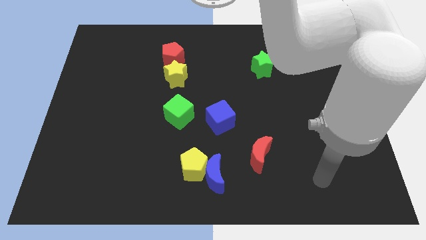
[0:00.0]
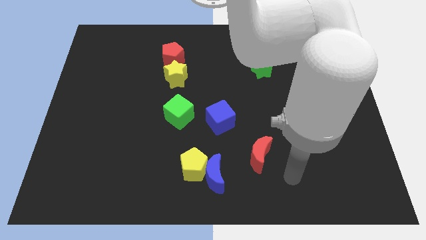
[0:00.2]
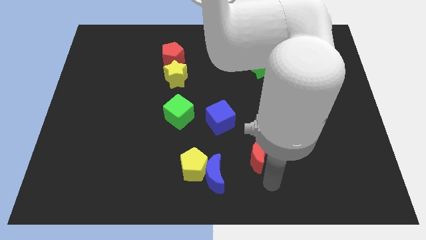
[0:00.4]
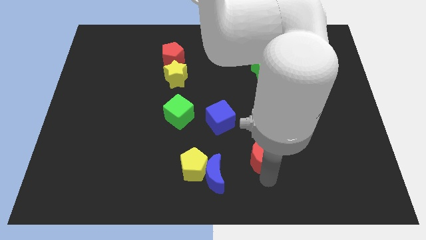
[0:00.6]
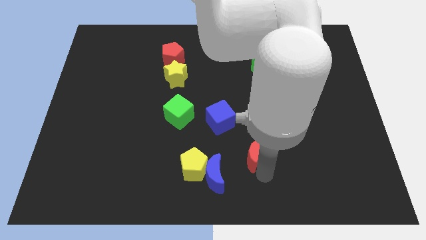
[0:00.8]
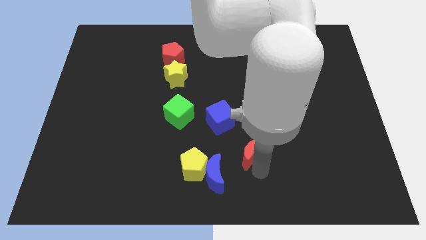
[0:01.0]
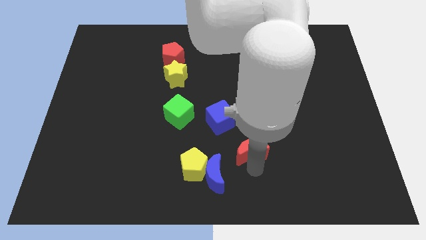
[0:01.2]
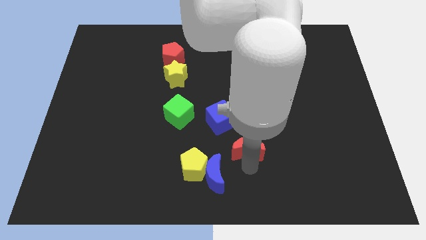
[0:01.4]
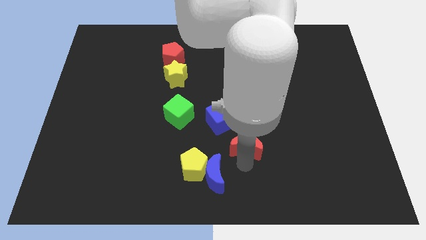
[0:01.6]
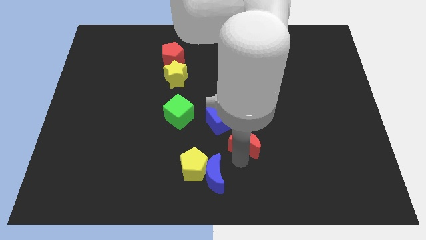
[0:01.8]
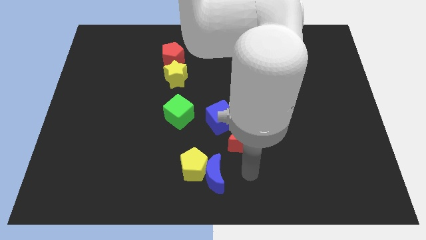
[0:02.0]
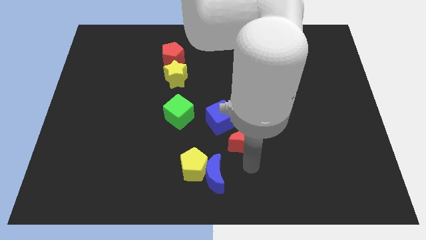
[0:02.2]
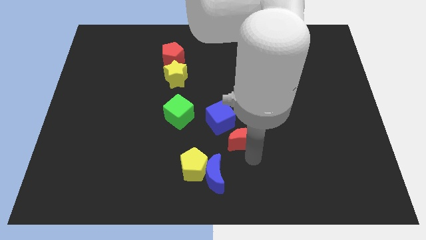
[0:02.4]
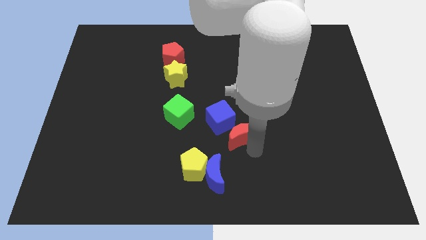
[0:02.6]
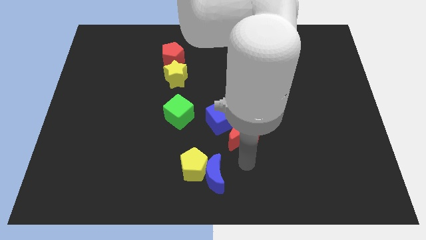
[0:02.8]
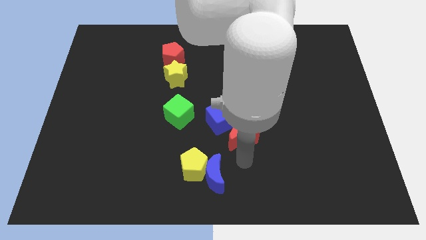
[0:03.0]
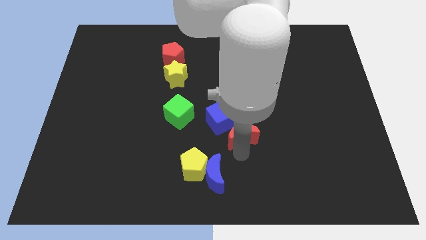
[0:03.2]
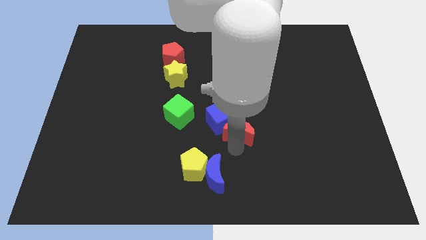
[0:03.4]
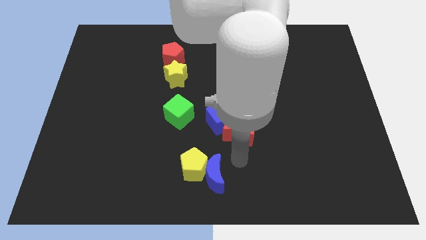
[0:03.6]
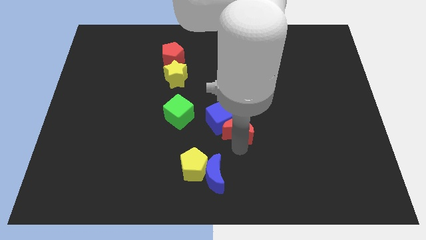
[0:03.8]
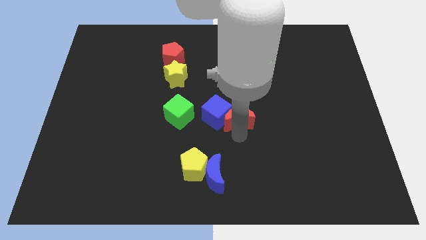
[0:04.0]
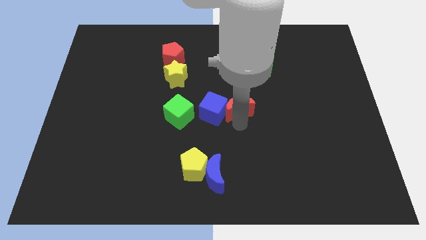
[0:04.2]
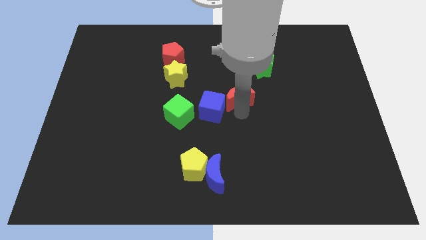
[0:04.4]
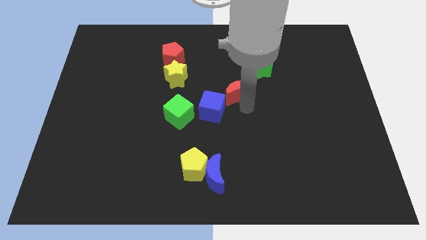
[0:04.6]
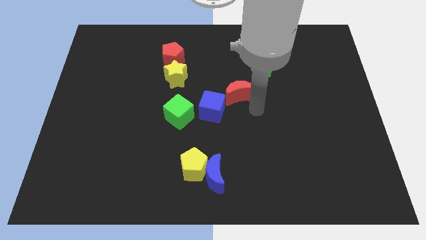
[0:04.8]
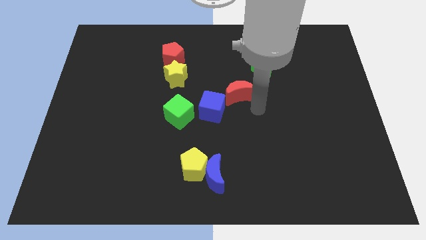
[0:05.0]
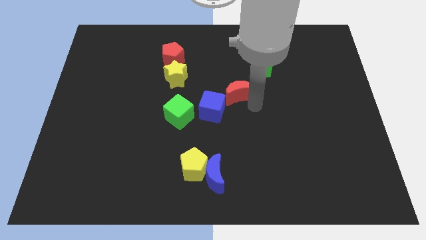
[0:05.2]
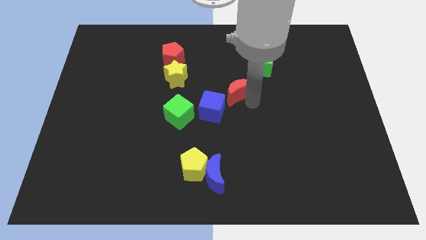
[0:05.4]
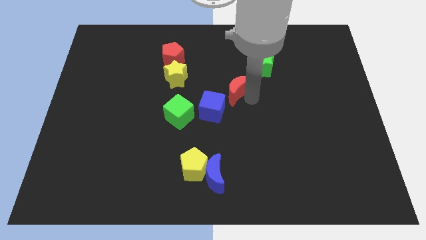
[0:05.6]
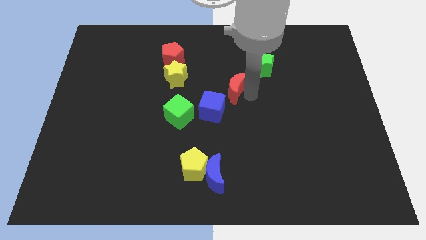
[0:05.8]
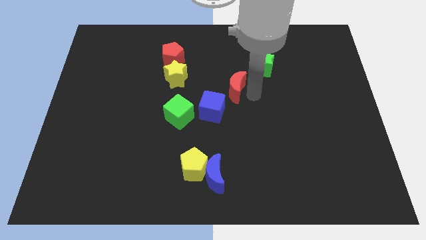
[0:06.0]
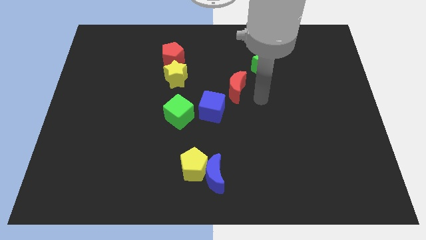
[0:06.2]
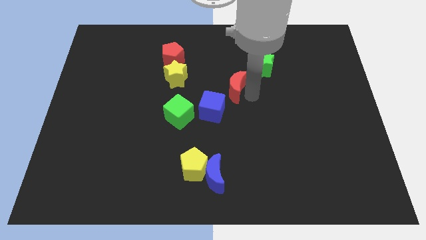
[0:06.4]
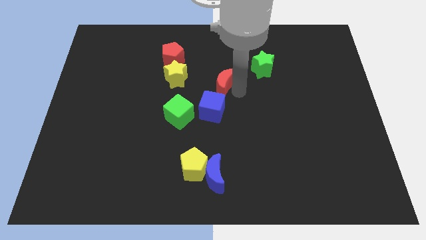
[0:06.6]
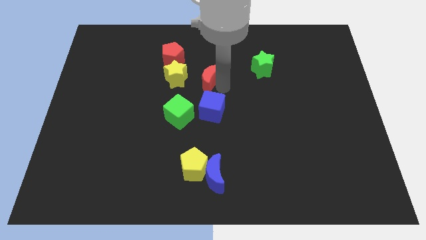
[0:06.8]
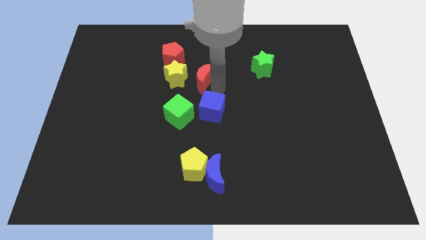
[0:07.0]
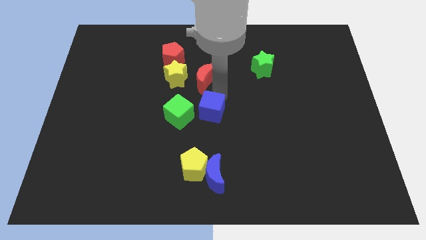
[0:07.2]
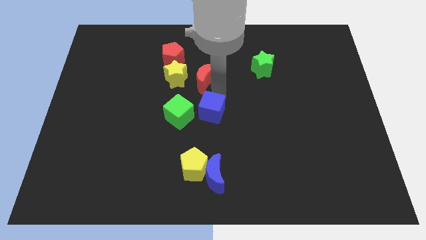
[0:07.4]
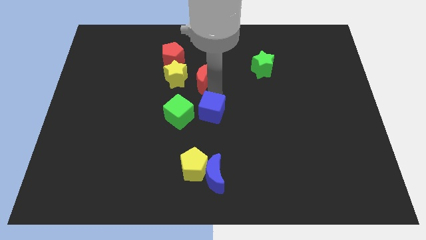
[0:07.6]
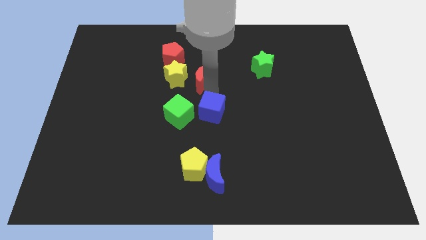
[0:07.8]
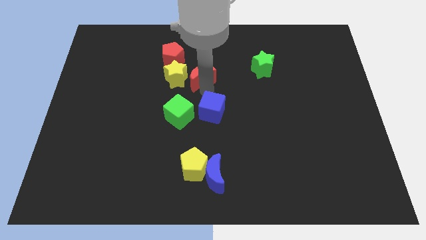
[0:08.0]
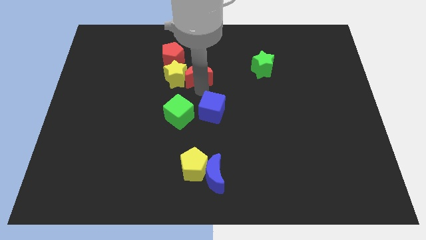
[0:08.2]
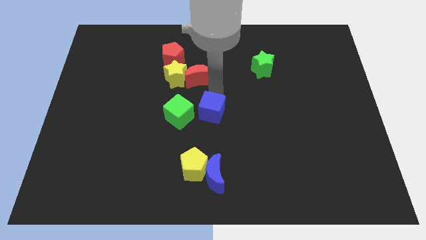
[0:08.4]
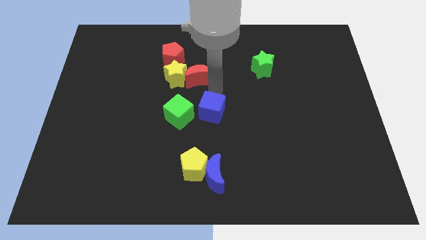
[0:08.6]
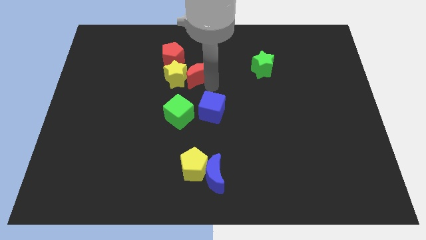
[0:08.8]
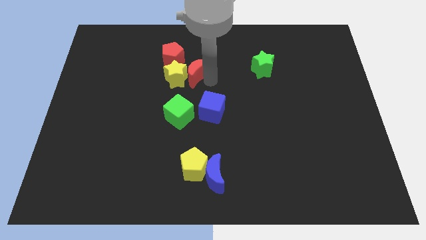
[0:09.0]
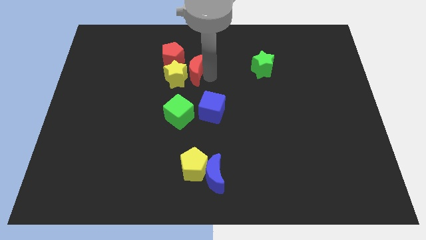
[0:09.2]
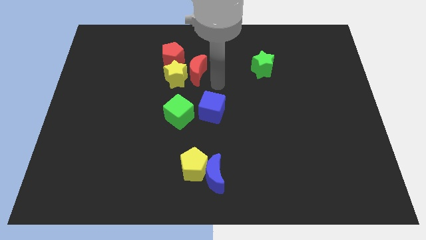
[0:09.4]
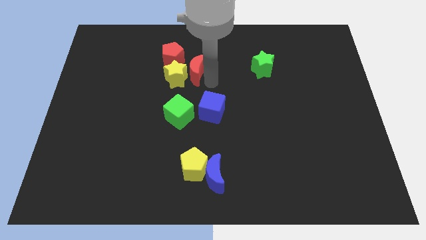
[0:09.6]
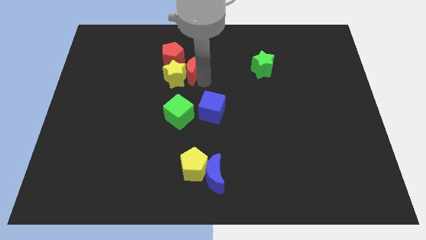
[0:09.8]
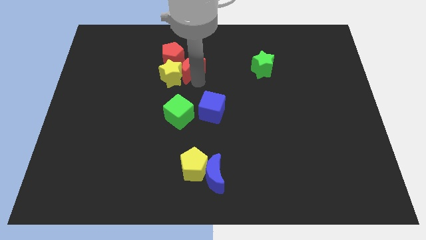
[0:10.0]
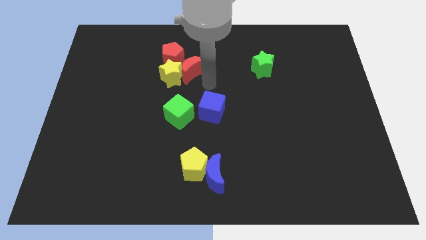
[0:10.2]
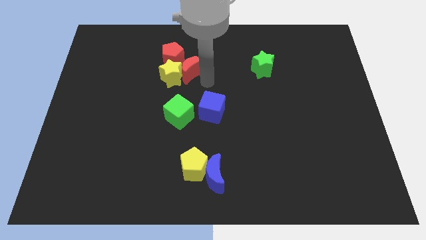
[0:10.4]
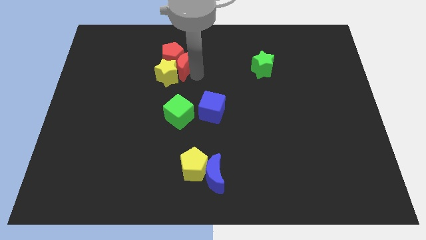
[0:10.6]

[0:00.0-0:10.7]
put the red moon close to the red pentagon

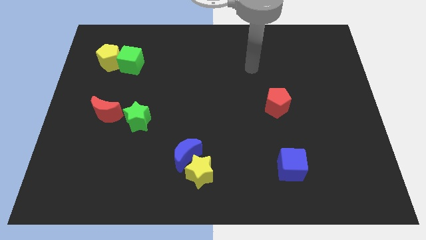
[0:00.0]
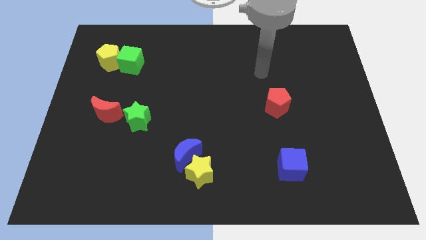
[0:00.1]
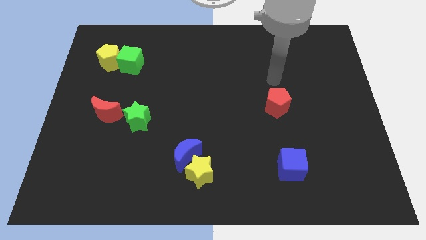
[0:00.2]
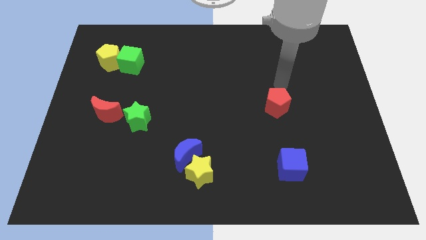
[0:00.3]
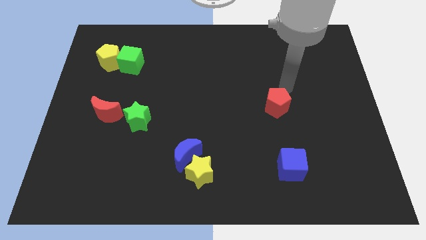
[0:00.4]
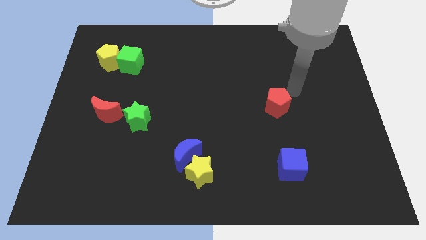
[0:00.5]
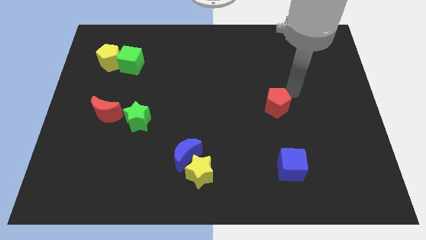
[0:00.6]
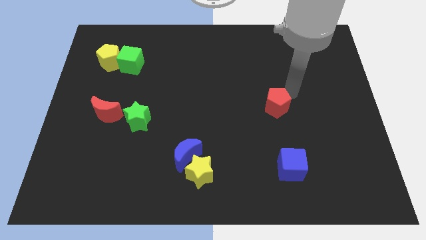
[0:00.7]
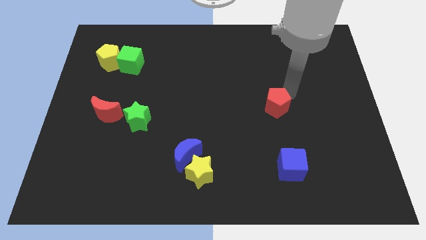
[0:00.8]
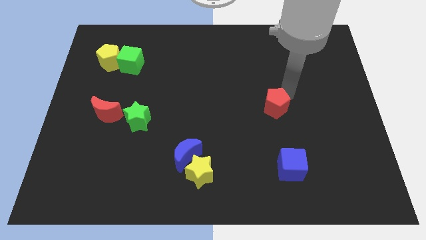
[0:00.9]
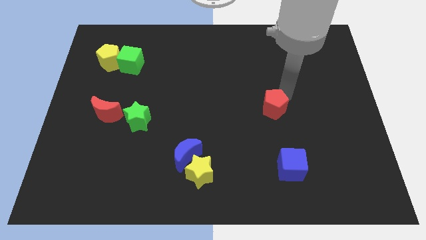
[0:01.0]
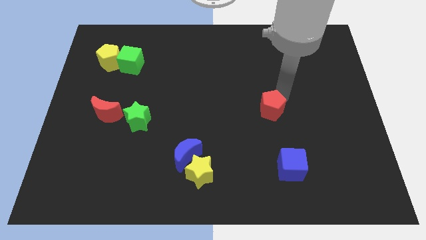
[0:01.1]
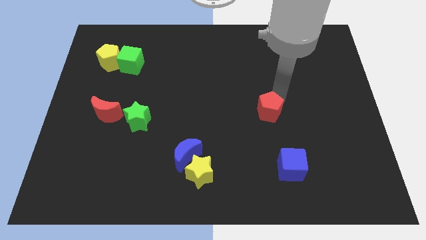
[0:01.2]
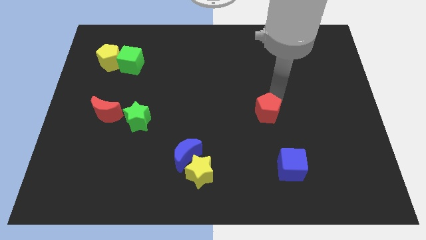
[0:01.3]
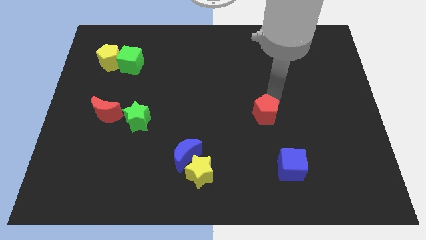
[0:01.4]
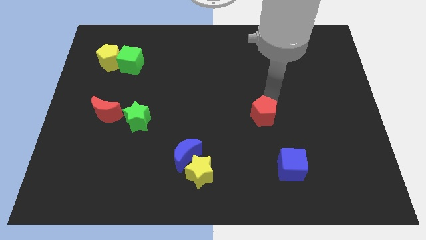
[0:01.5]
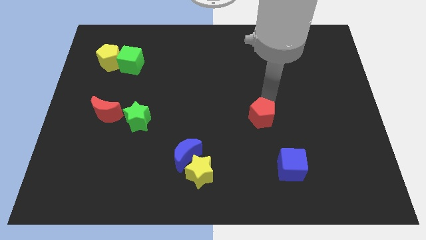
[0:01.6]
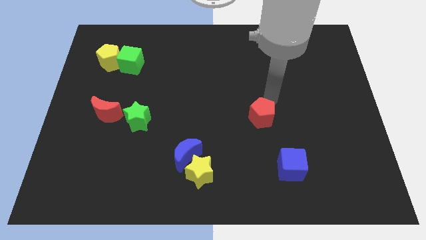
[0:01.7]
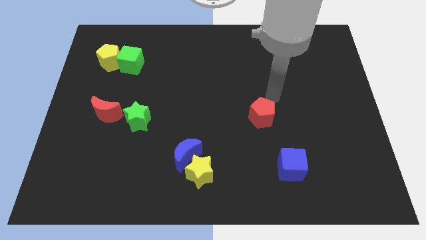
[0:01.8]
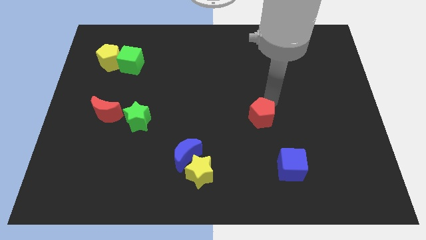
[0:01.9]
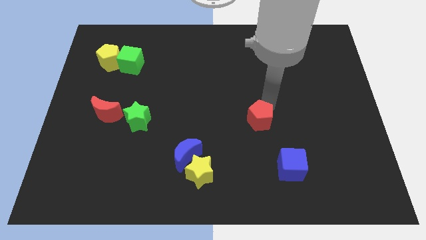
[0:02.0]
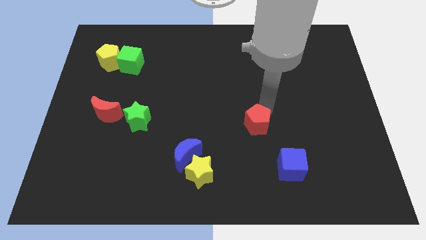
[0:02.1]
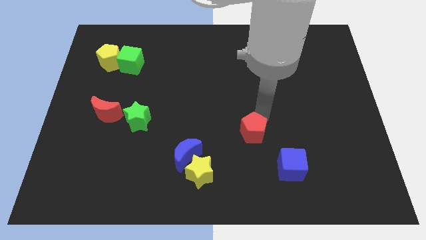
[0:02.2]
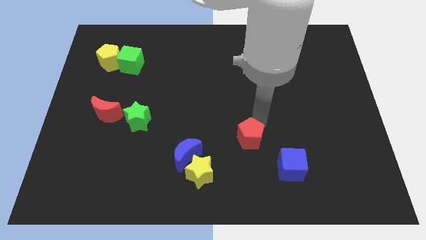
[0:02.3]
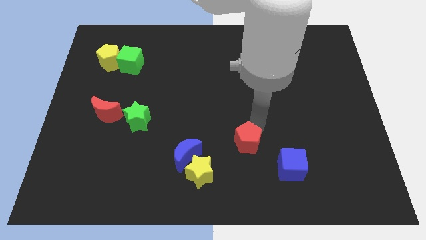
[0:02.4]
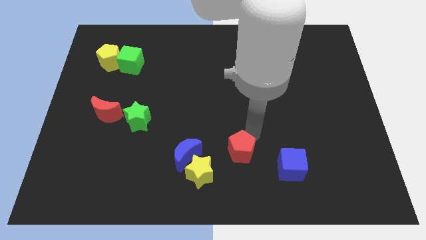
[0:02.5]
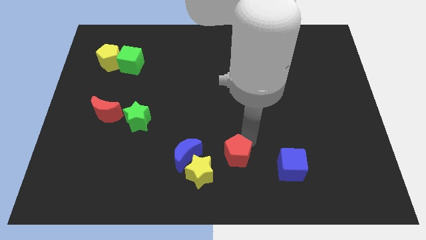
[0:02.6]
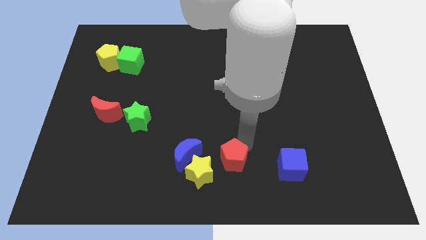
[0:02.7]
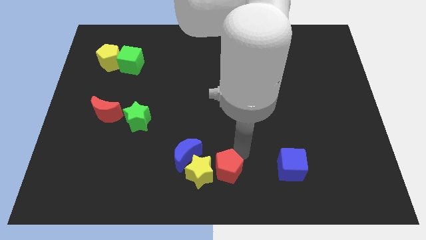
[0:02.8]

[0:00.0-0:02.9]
put the red pentagon to the yellow star
